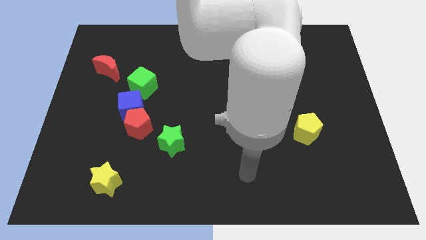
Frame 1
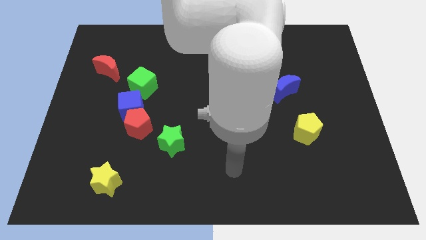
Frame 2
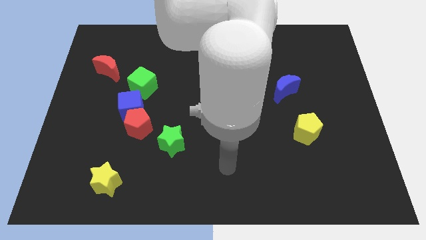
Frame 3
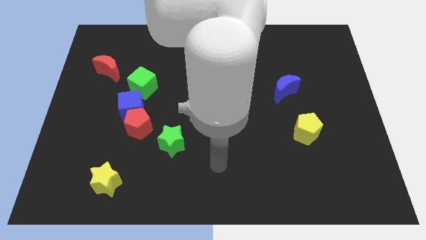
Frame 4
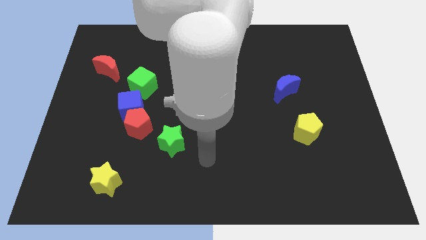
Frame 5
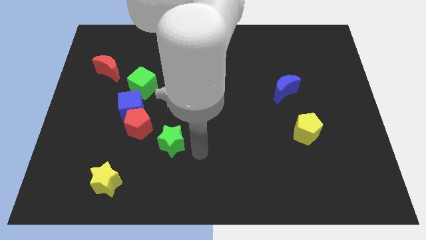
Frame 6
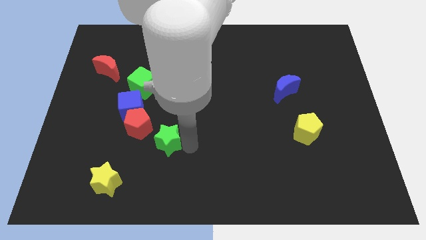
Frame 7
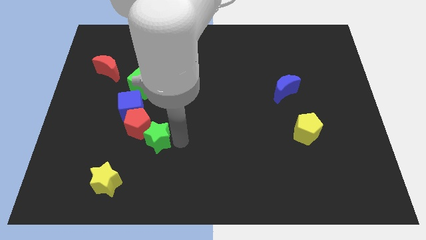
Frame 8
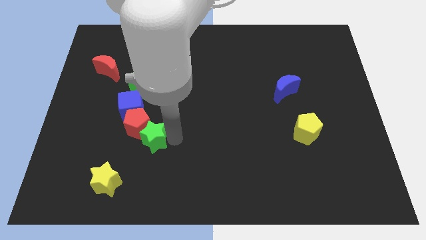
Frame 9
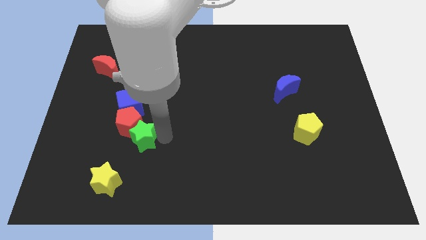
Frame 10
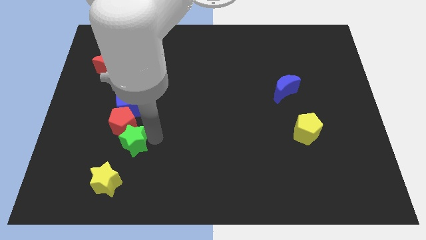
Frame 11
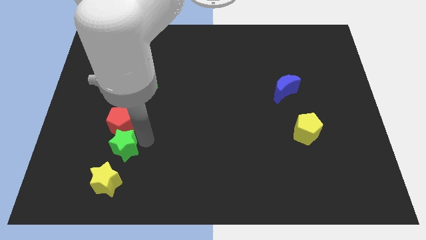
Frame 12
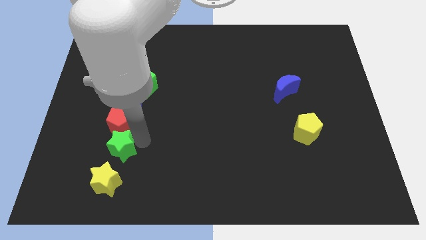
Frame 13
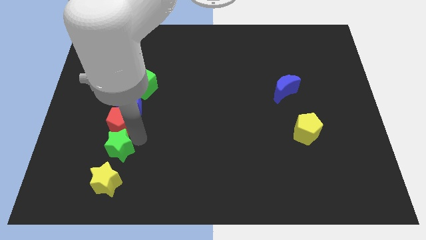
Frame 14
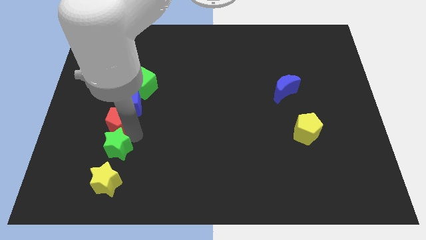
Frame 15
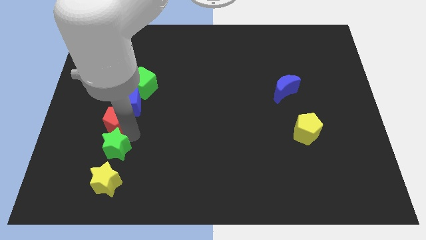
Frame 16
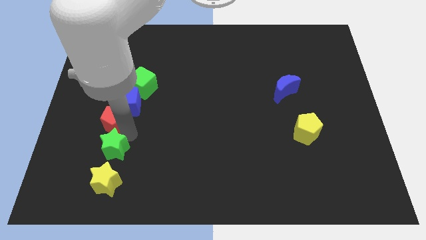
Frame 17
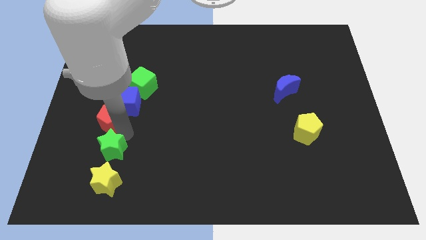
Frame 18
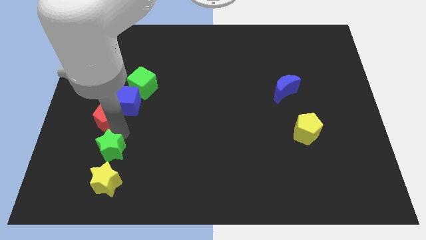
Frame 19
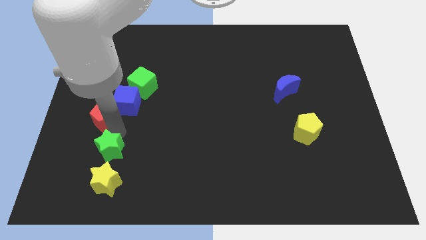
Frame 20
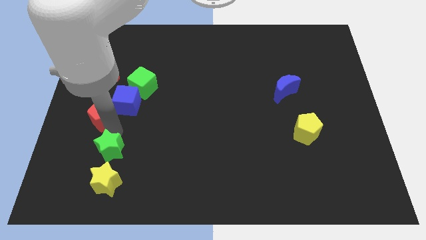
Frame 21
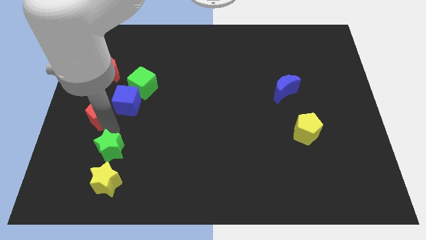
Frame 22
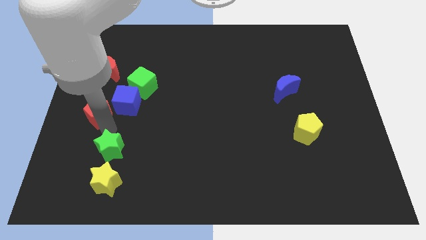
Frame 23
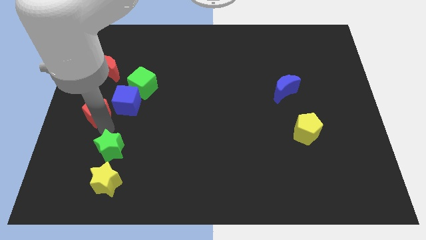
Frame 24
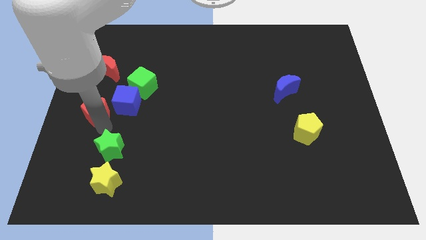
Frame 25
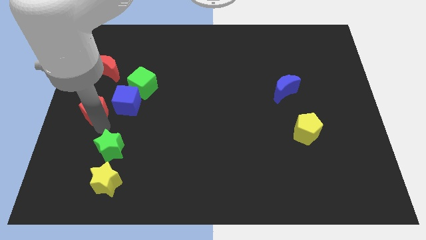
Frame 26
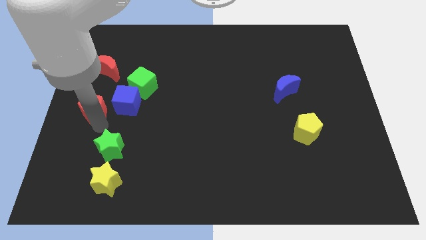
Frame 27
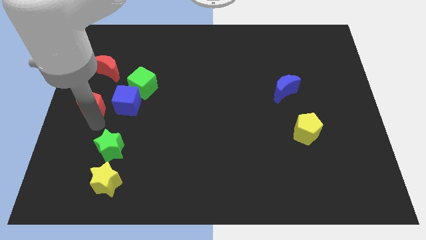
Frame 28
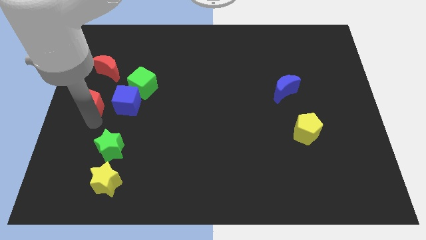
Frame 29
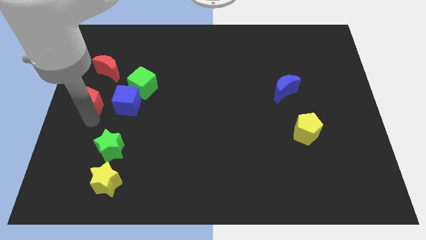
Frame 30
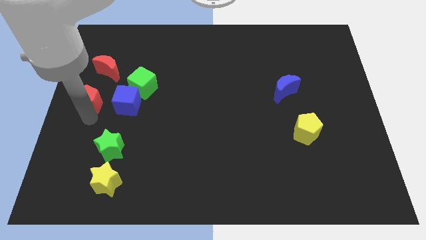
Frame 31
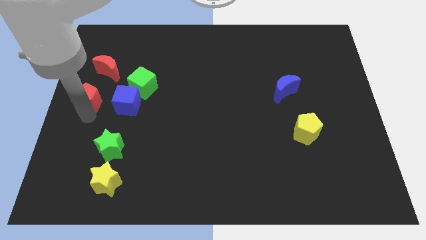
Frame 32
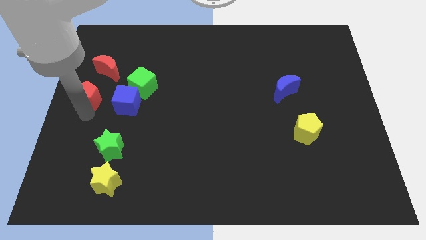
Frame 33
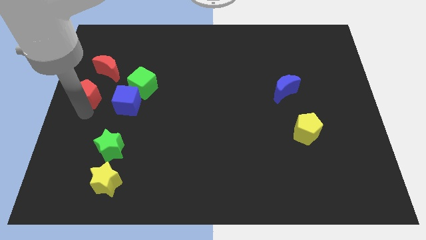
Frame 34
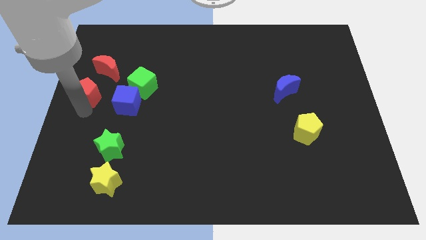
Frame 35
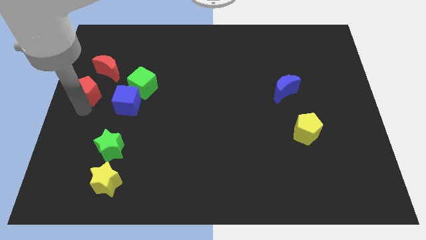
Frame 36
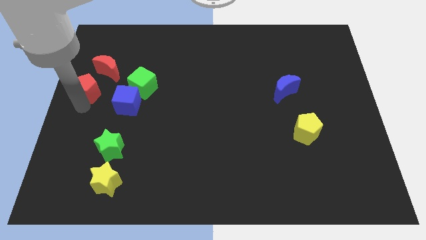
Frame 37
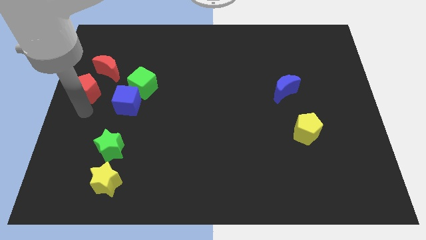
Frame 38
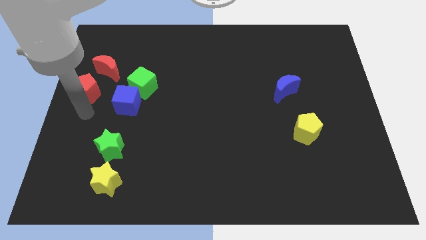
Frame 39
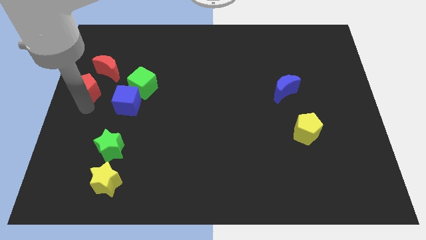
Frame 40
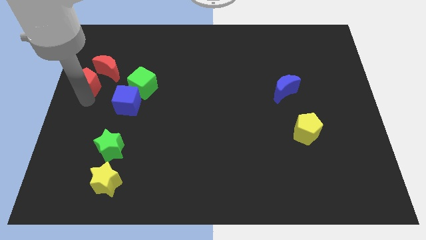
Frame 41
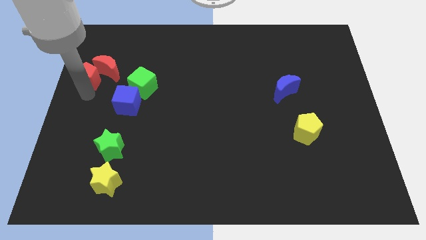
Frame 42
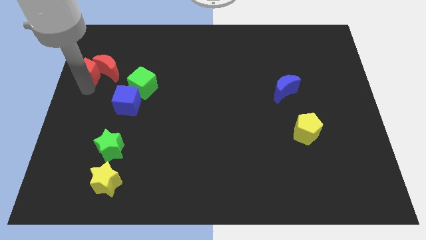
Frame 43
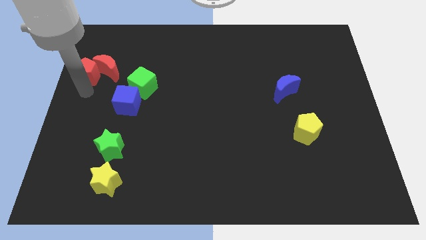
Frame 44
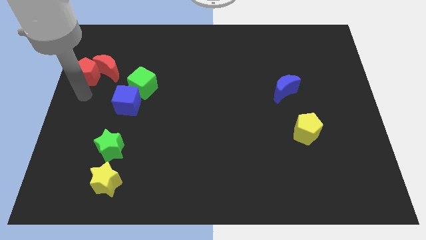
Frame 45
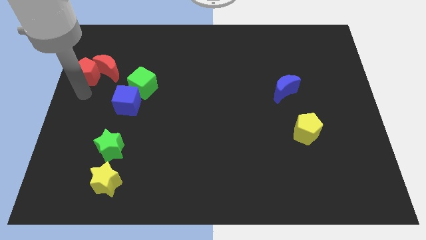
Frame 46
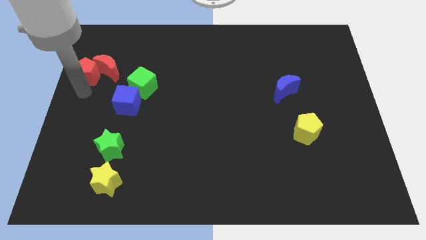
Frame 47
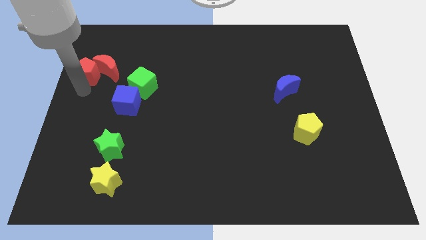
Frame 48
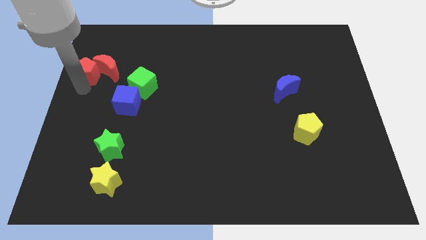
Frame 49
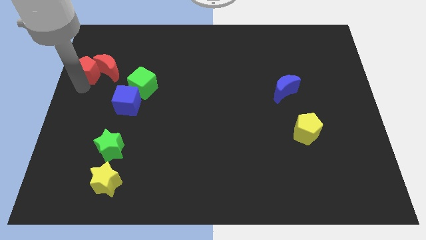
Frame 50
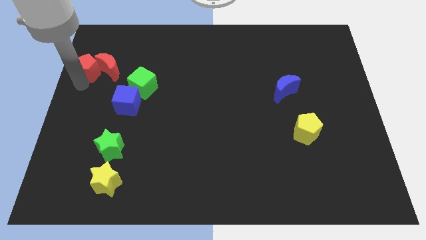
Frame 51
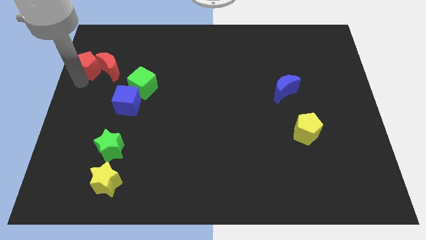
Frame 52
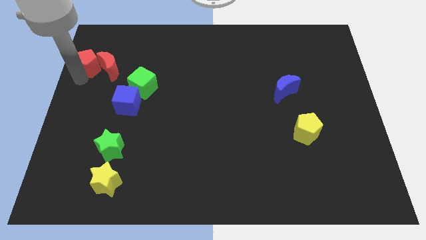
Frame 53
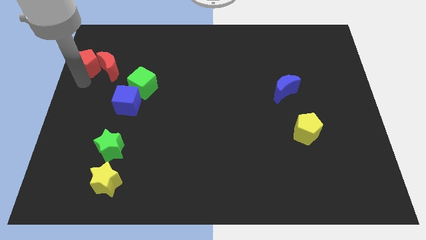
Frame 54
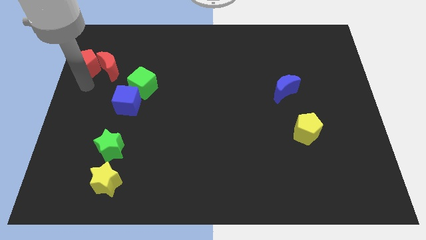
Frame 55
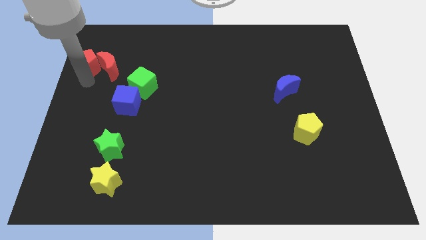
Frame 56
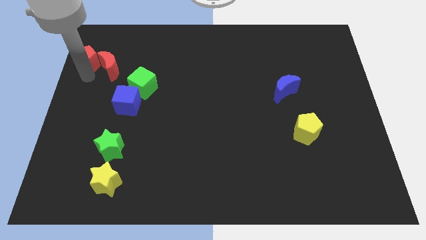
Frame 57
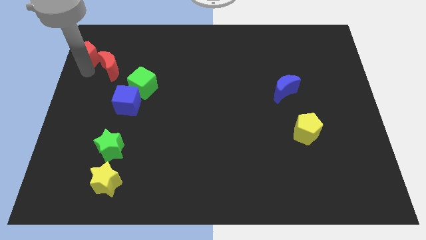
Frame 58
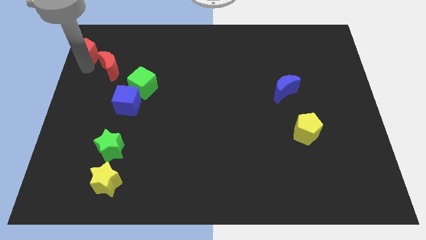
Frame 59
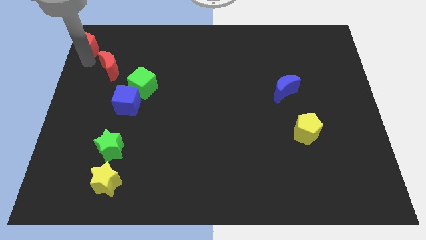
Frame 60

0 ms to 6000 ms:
move the red pentagon to the top left of the board

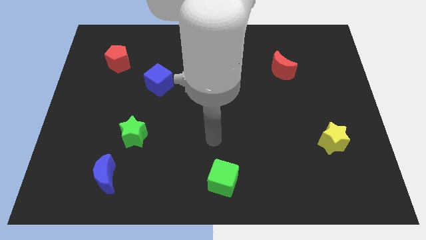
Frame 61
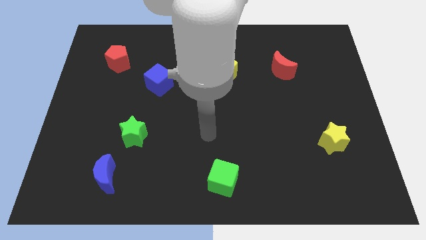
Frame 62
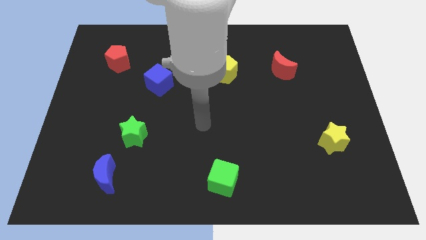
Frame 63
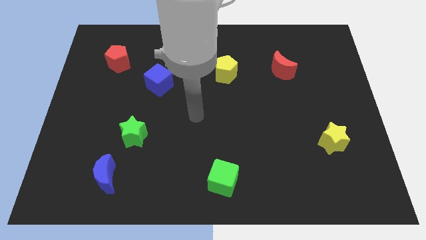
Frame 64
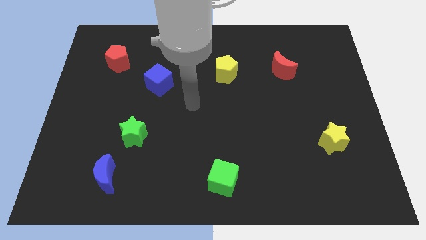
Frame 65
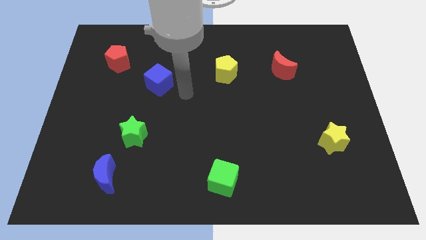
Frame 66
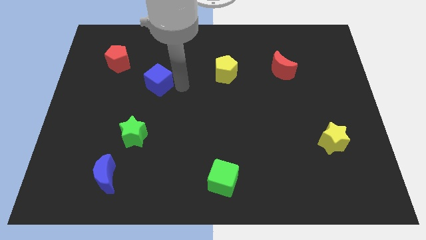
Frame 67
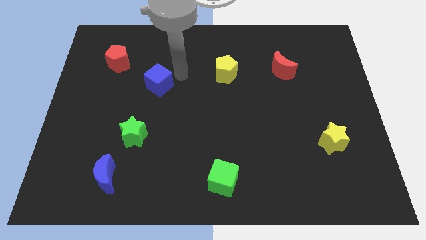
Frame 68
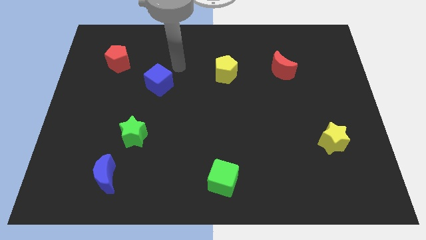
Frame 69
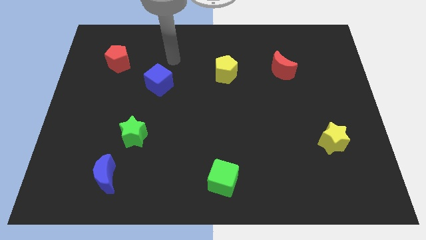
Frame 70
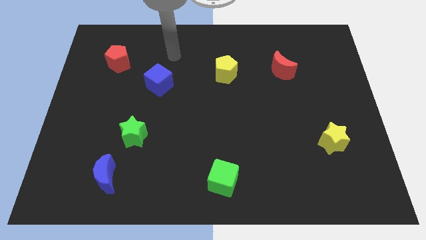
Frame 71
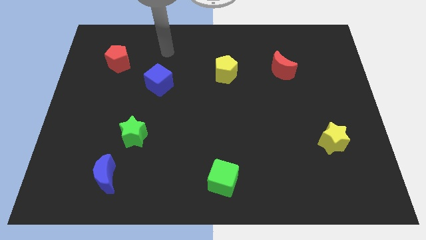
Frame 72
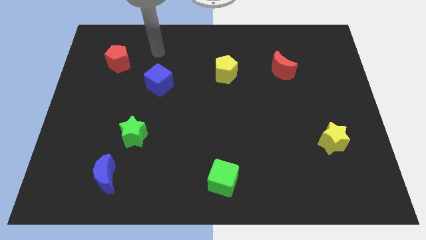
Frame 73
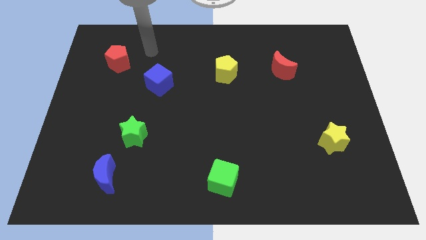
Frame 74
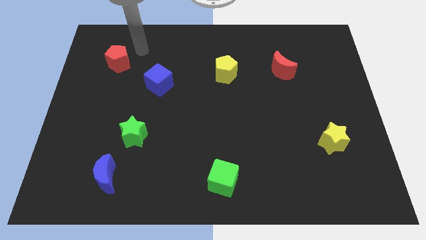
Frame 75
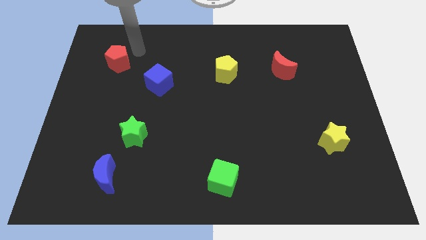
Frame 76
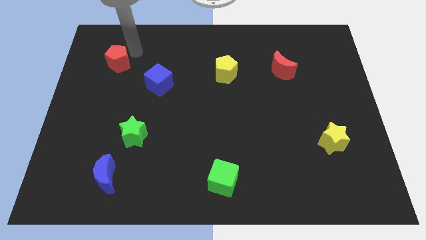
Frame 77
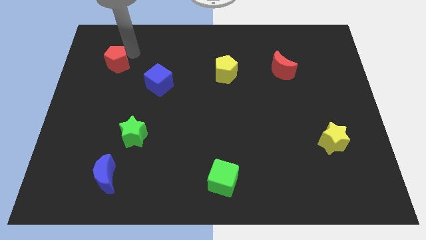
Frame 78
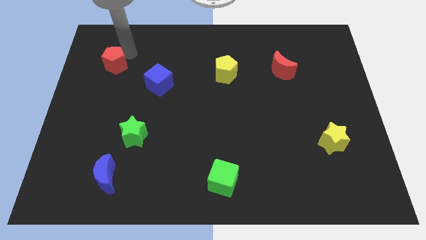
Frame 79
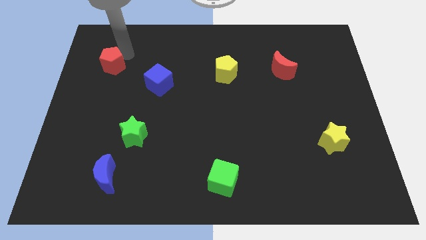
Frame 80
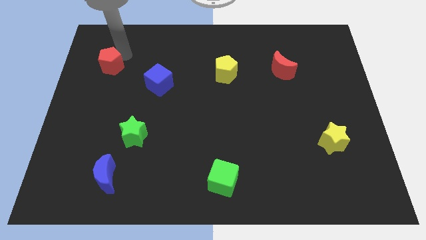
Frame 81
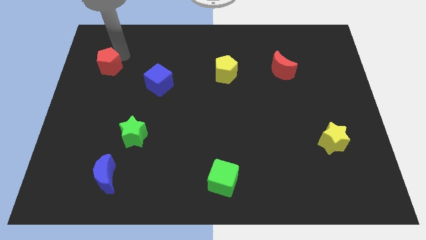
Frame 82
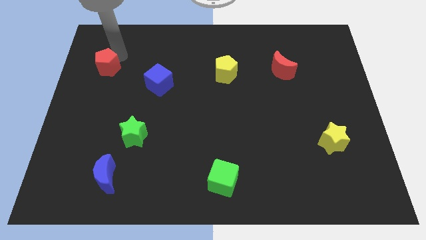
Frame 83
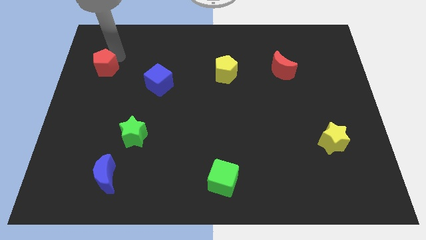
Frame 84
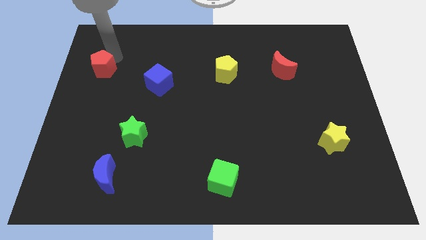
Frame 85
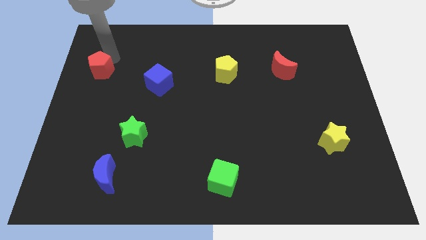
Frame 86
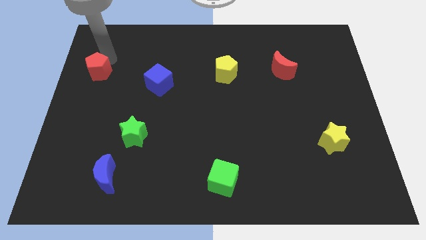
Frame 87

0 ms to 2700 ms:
move the red pentagon to the left side of the board
